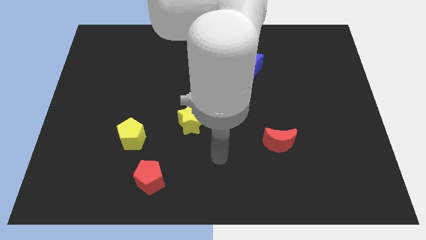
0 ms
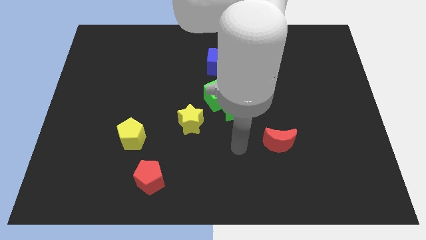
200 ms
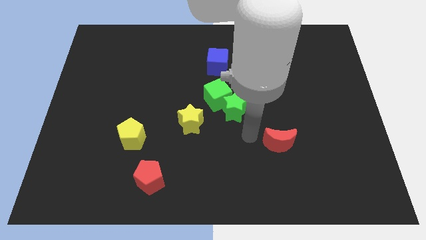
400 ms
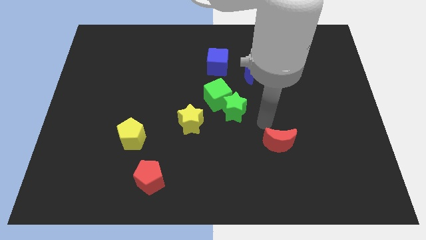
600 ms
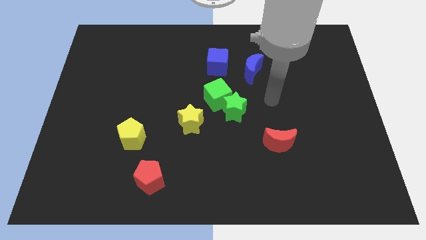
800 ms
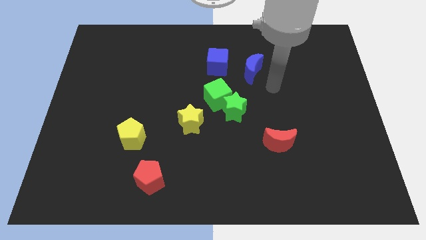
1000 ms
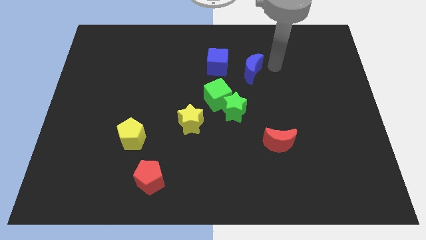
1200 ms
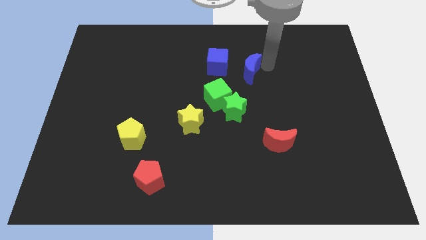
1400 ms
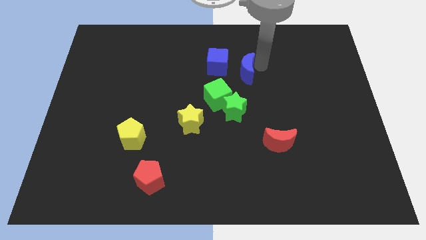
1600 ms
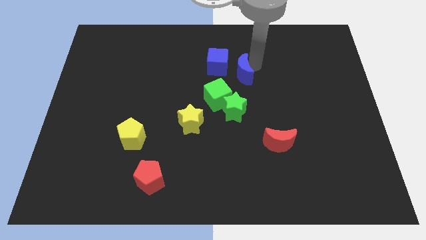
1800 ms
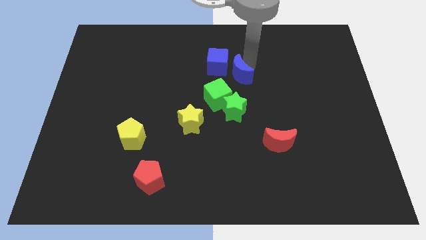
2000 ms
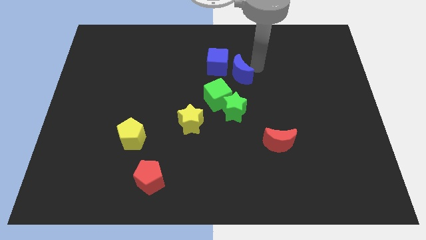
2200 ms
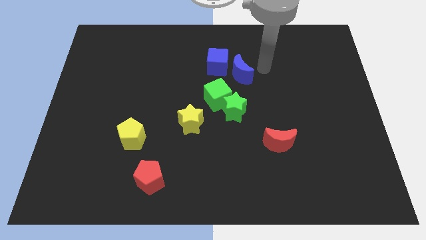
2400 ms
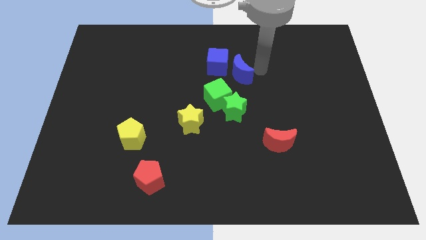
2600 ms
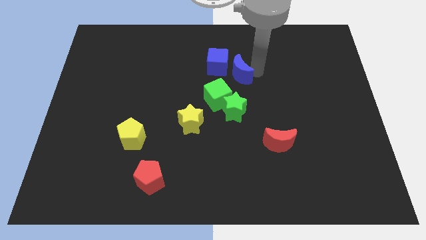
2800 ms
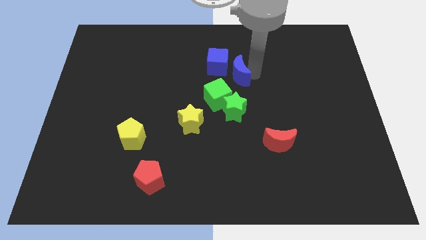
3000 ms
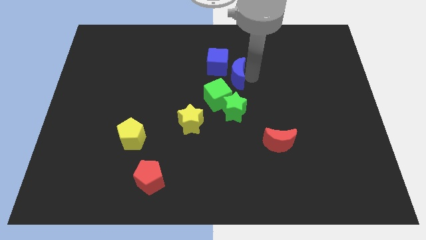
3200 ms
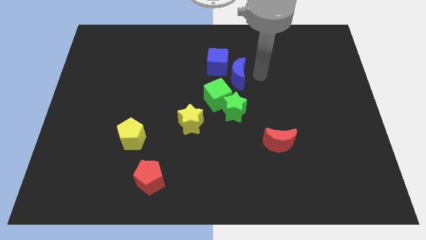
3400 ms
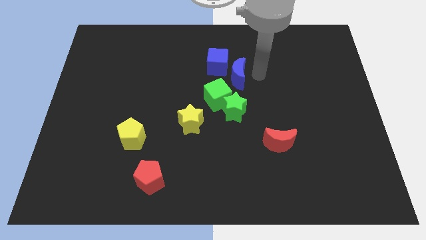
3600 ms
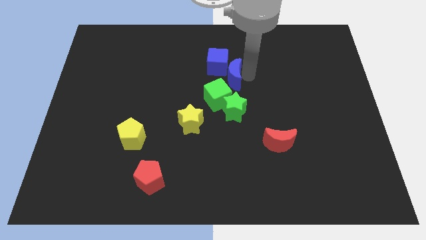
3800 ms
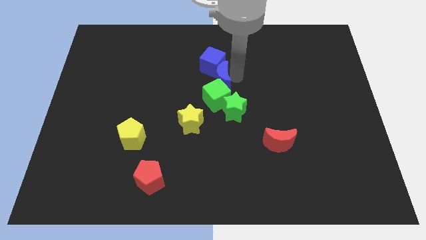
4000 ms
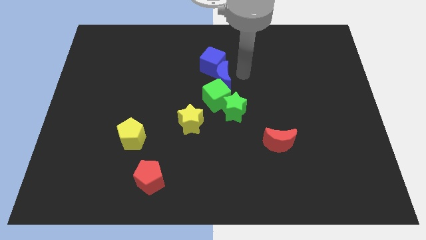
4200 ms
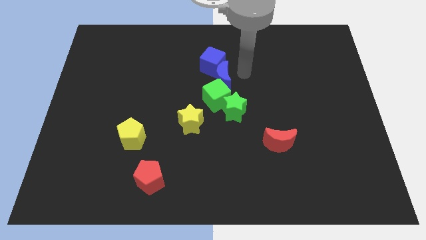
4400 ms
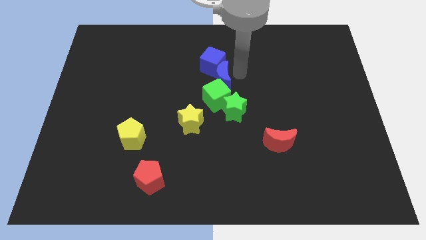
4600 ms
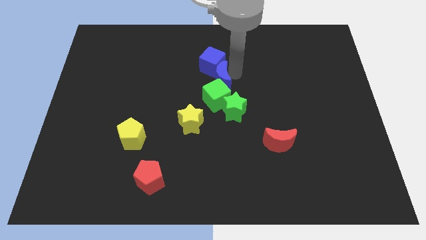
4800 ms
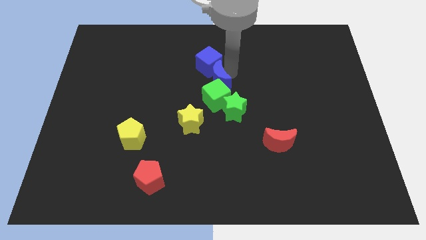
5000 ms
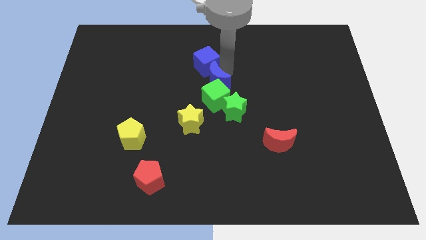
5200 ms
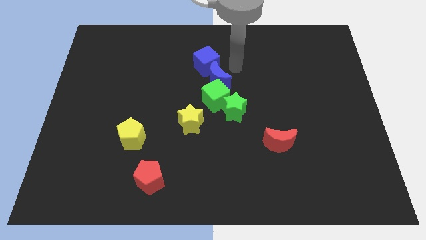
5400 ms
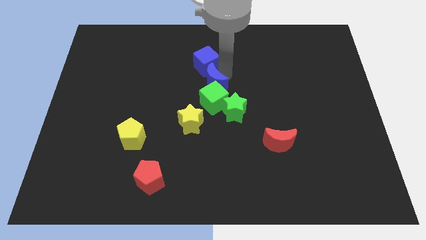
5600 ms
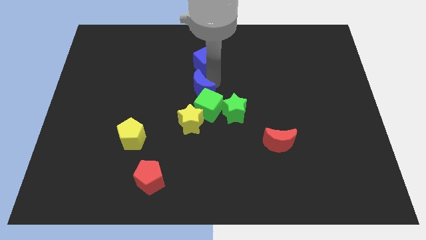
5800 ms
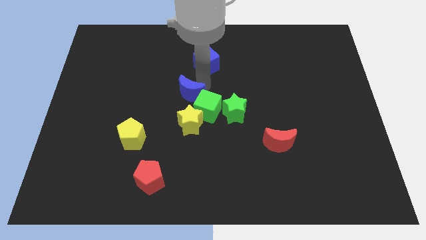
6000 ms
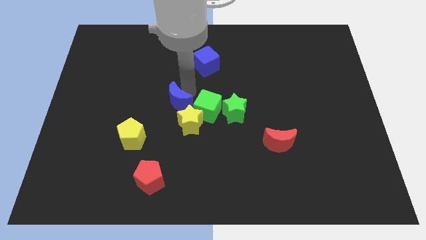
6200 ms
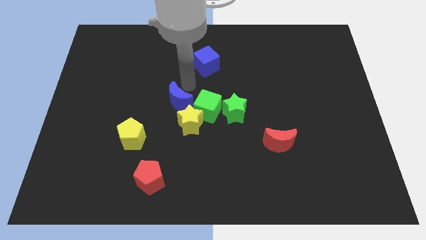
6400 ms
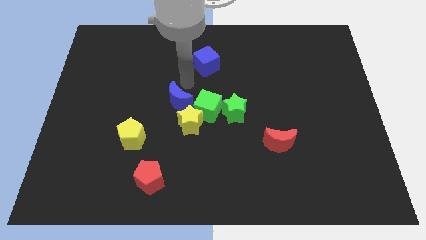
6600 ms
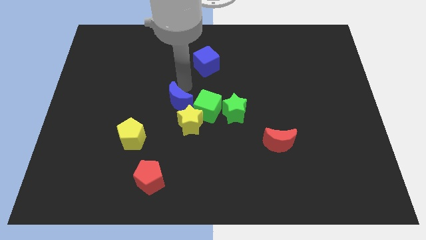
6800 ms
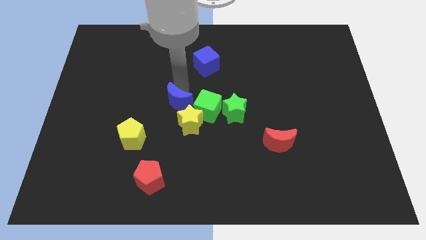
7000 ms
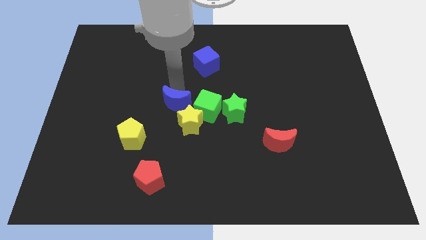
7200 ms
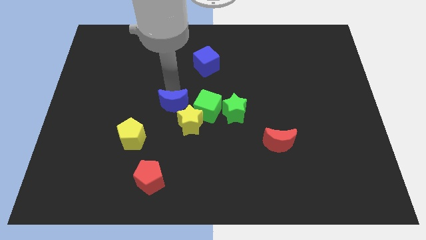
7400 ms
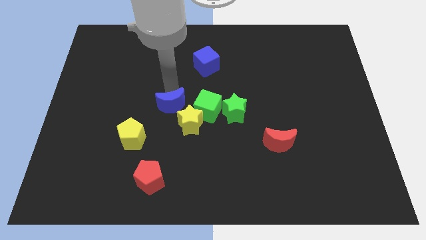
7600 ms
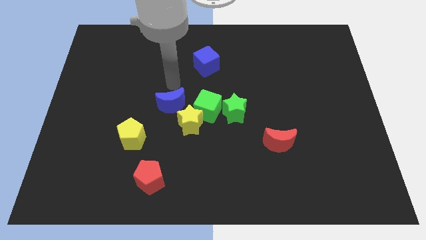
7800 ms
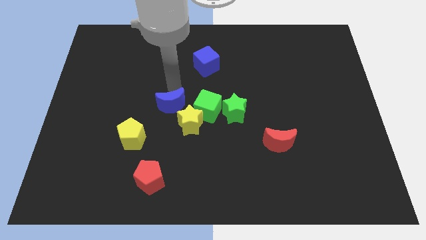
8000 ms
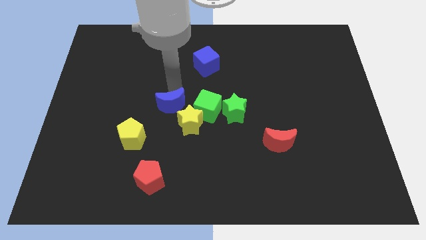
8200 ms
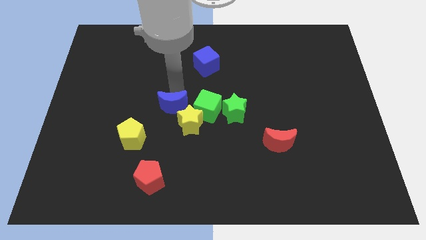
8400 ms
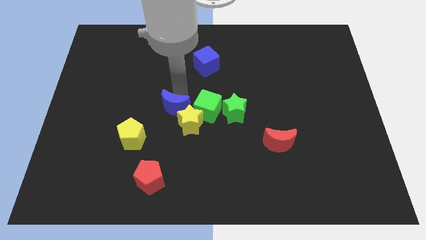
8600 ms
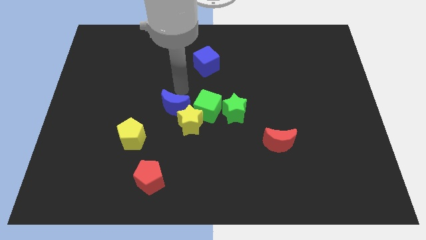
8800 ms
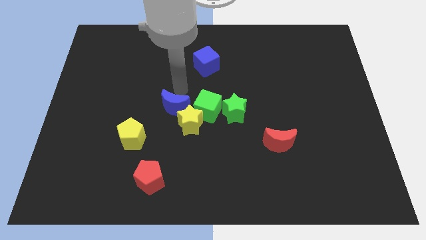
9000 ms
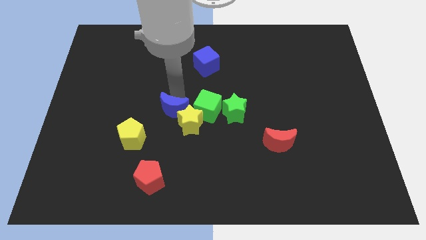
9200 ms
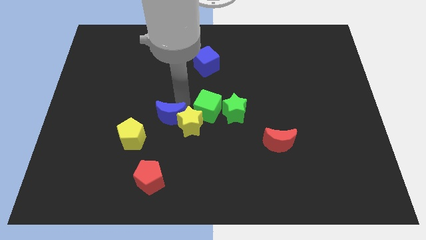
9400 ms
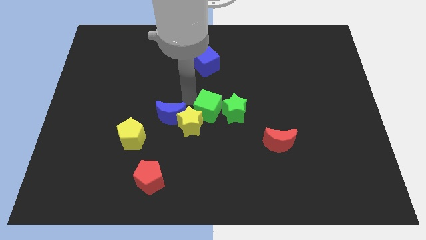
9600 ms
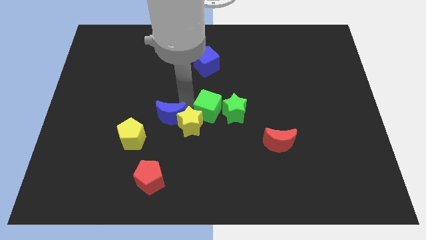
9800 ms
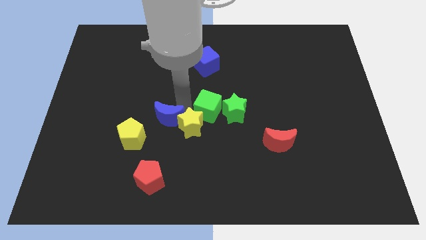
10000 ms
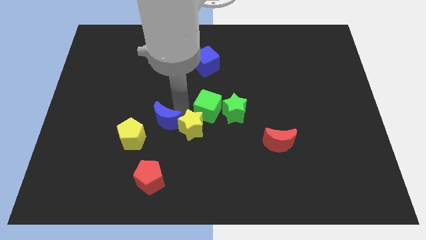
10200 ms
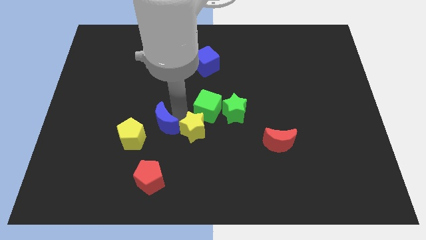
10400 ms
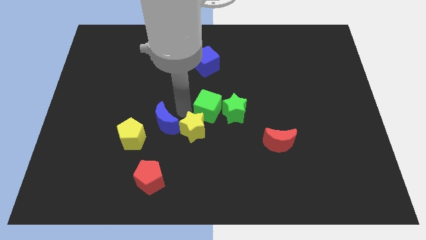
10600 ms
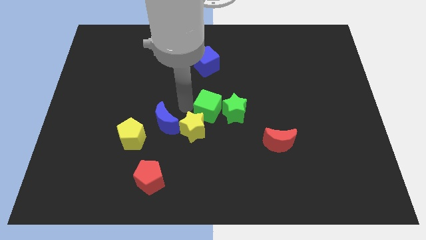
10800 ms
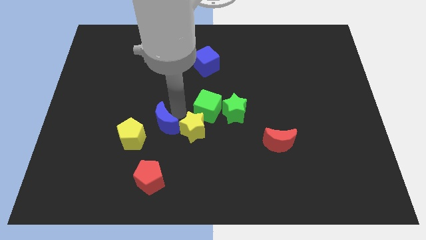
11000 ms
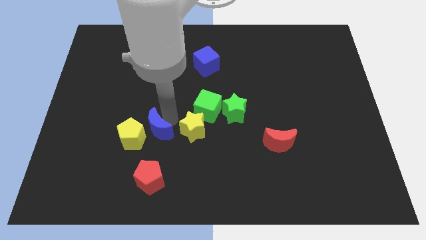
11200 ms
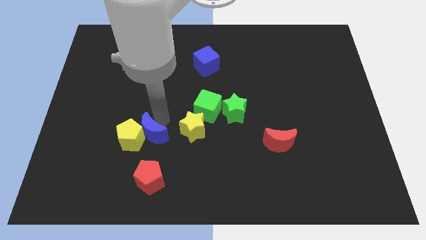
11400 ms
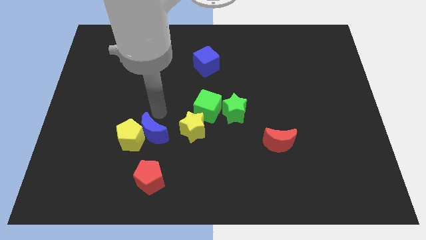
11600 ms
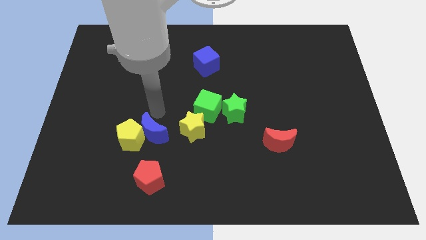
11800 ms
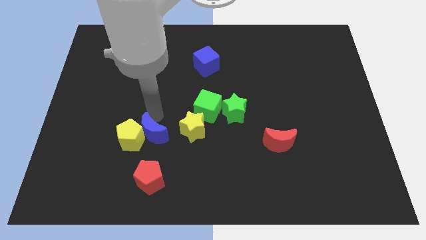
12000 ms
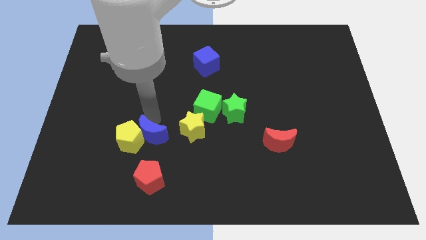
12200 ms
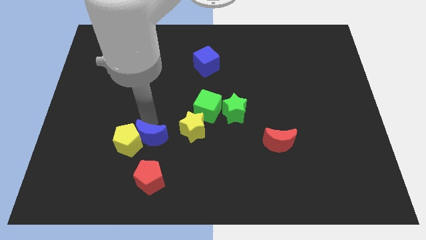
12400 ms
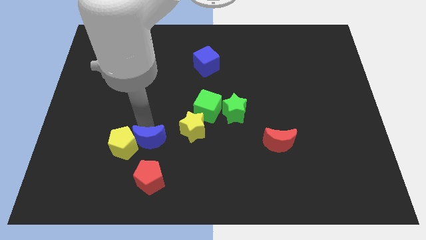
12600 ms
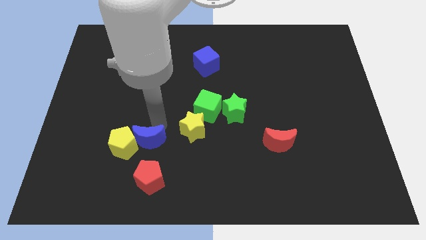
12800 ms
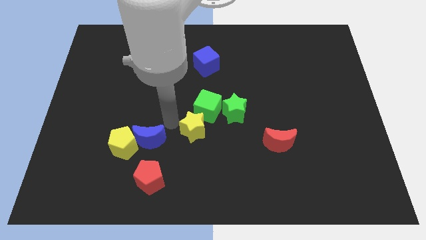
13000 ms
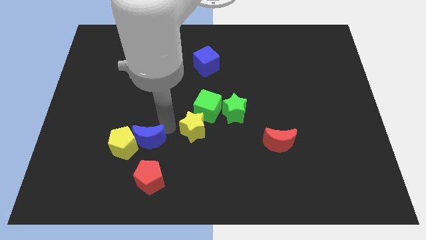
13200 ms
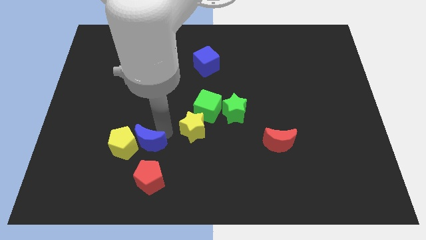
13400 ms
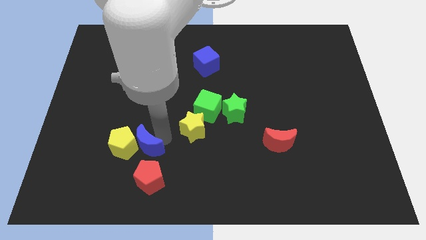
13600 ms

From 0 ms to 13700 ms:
push the blue moon diagonally up and to the left of the red pentagon
